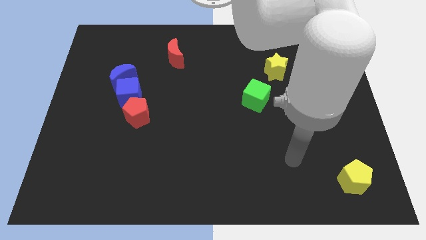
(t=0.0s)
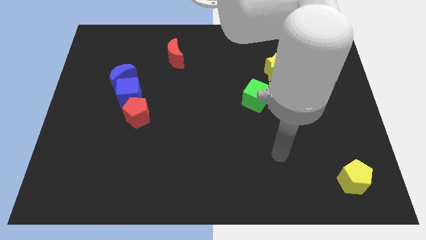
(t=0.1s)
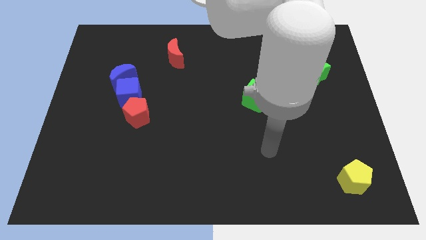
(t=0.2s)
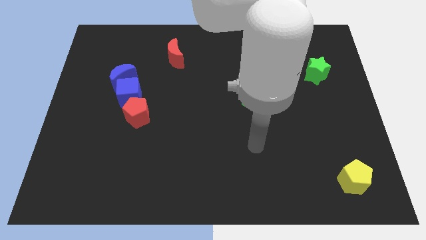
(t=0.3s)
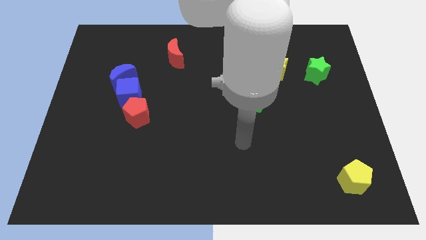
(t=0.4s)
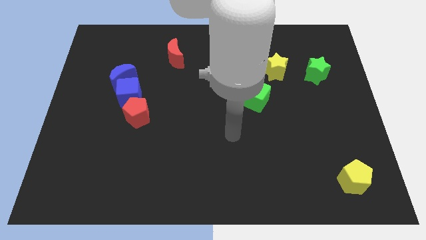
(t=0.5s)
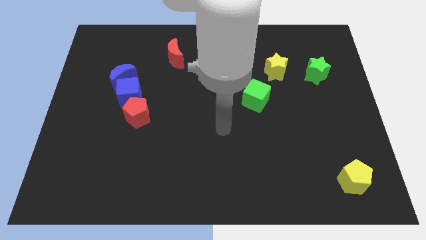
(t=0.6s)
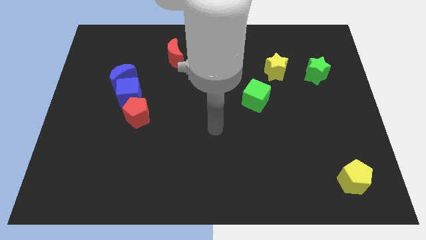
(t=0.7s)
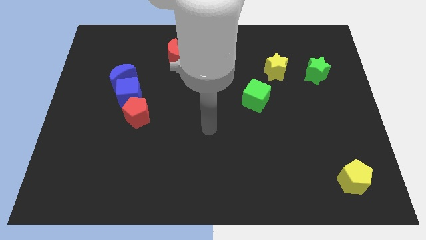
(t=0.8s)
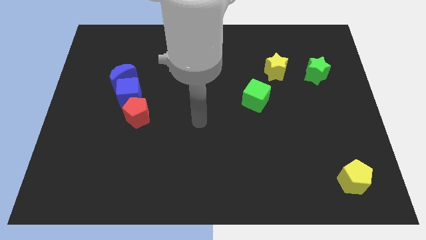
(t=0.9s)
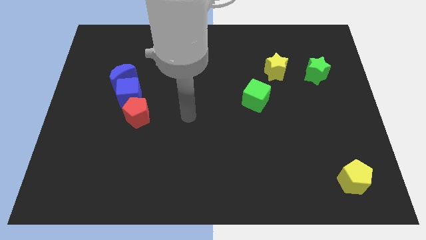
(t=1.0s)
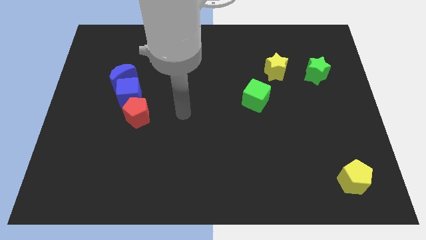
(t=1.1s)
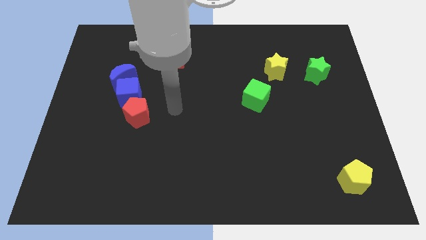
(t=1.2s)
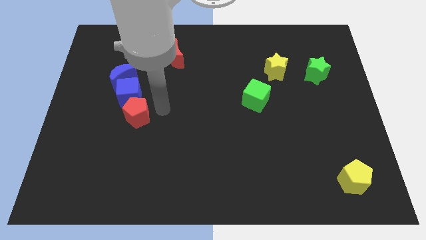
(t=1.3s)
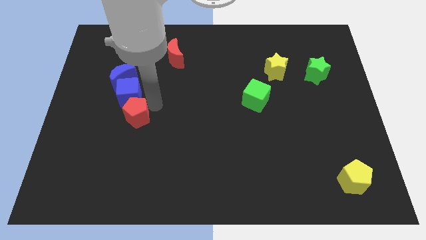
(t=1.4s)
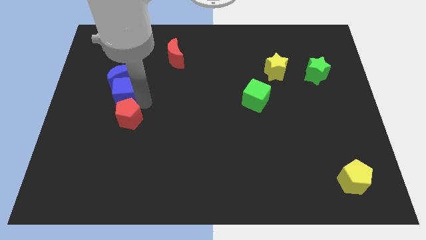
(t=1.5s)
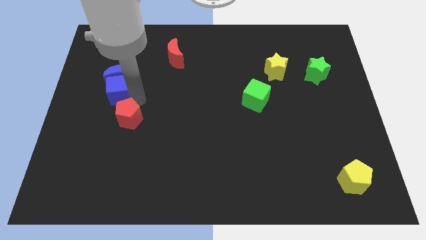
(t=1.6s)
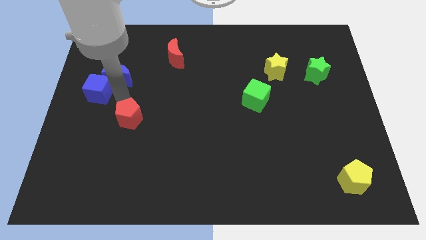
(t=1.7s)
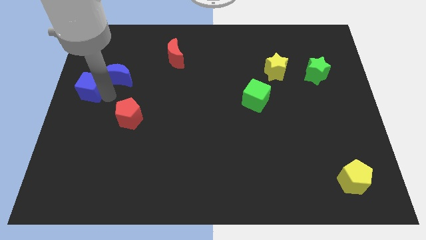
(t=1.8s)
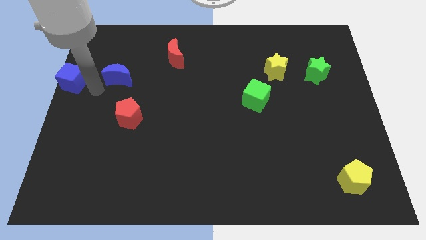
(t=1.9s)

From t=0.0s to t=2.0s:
move the blue moon away from the blue cube

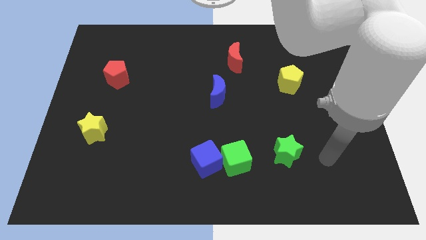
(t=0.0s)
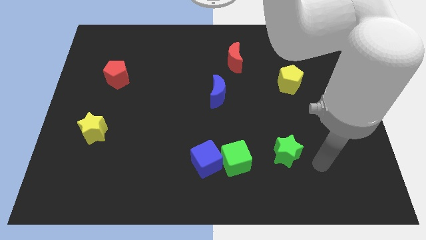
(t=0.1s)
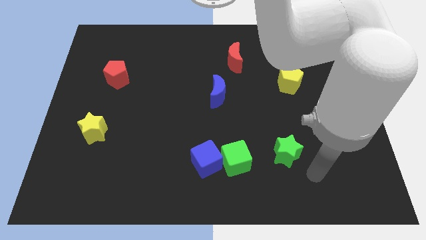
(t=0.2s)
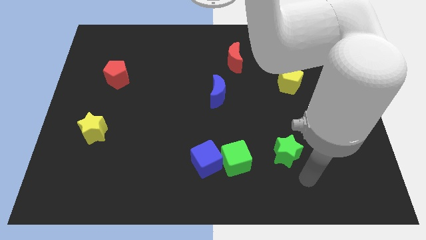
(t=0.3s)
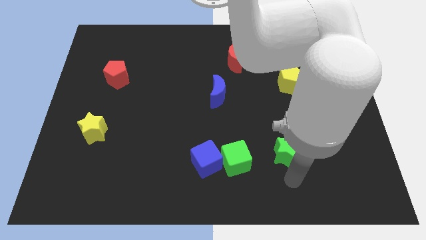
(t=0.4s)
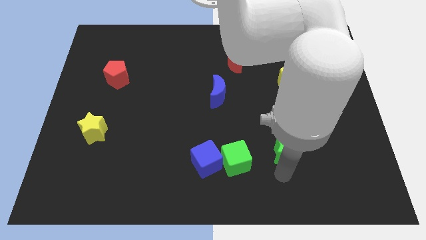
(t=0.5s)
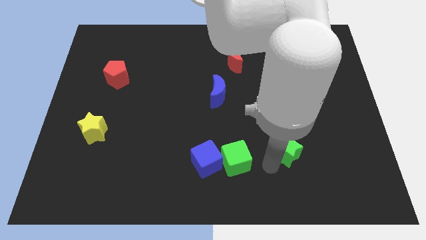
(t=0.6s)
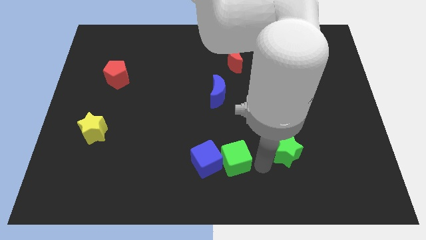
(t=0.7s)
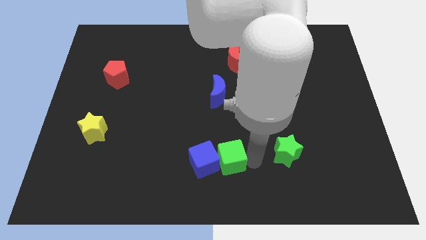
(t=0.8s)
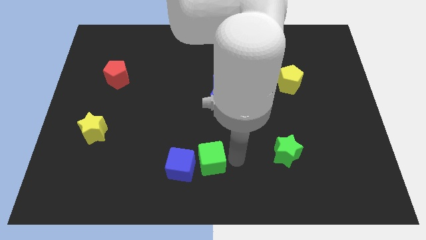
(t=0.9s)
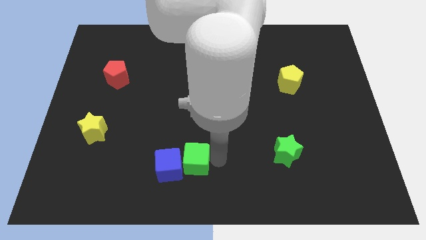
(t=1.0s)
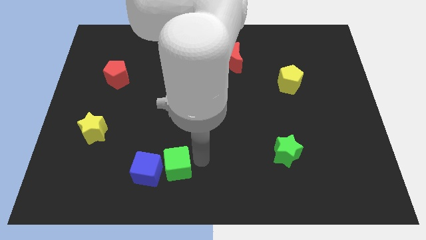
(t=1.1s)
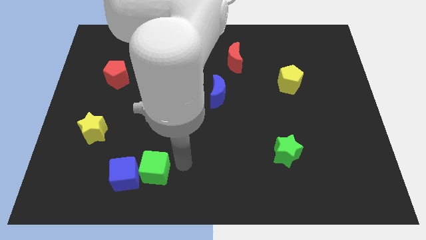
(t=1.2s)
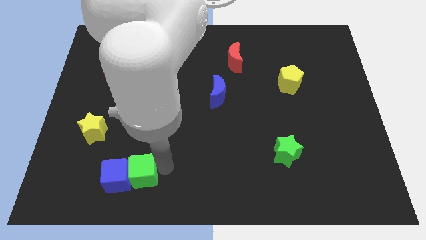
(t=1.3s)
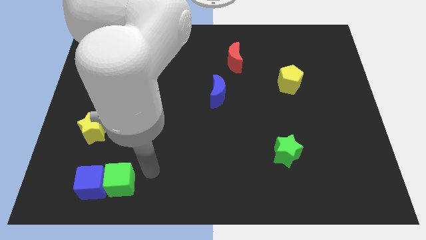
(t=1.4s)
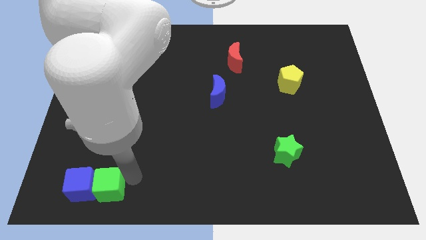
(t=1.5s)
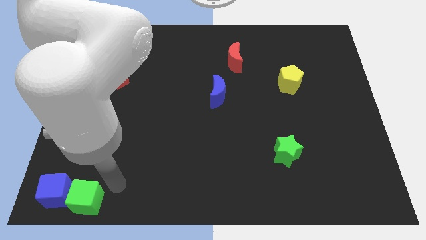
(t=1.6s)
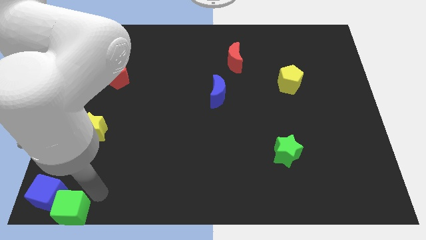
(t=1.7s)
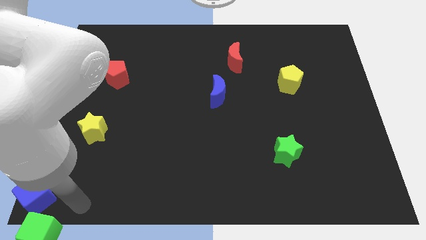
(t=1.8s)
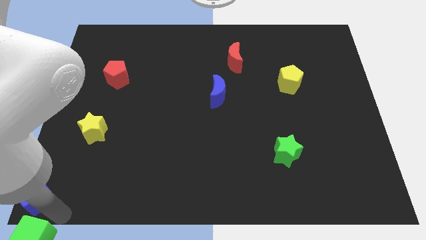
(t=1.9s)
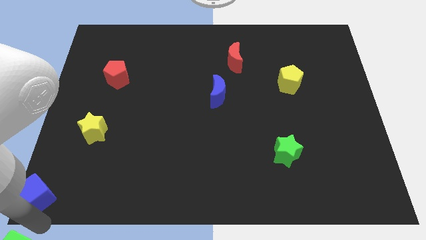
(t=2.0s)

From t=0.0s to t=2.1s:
move the blue cube away from the green cube

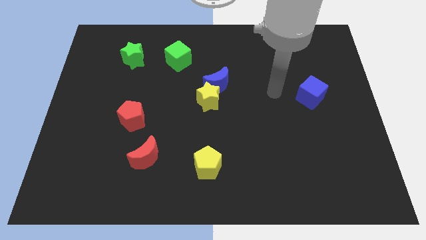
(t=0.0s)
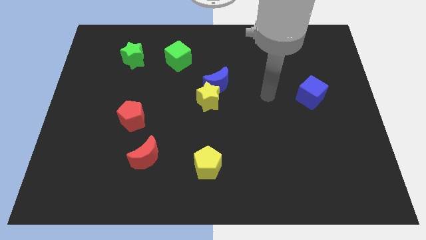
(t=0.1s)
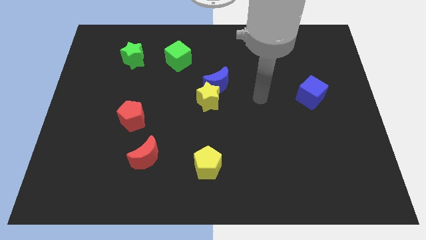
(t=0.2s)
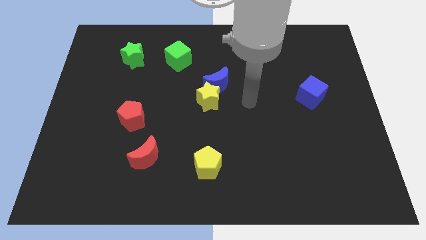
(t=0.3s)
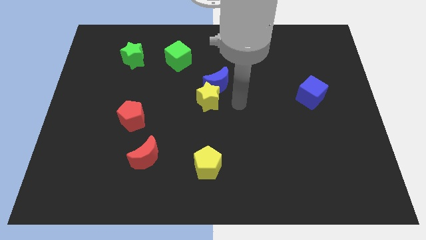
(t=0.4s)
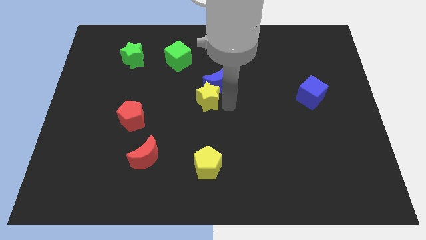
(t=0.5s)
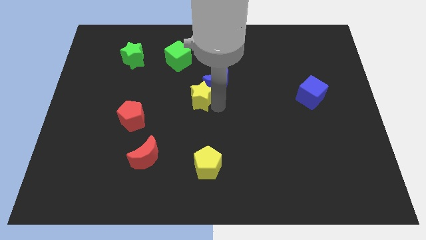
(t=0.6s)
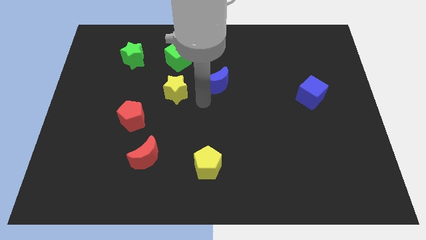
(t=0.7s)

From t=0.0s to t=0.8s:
separate the blue moon from the yellow star

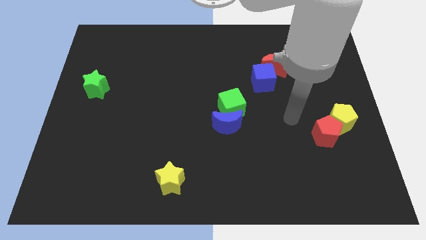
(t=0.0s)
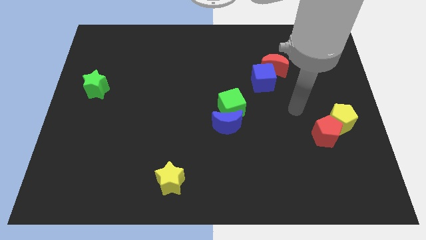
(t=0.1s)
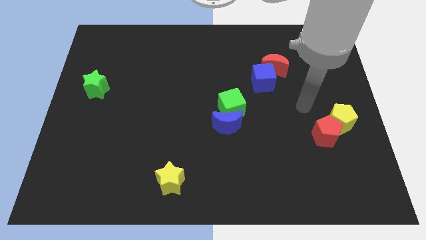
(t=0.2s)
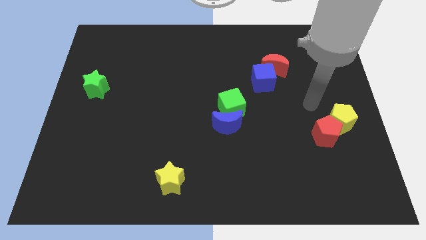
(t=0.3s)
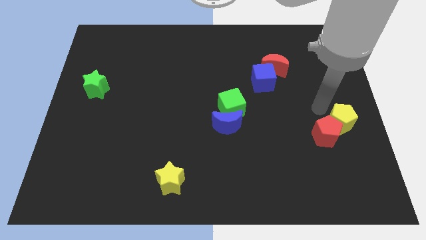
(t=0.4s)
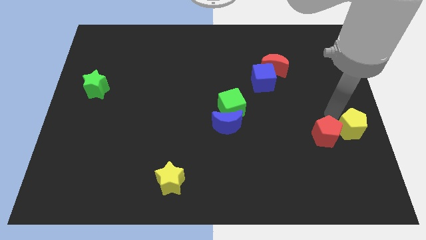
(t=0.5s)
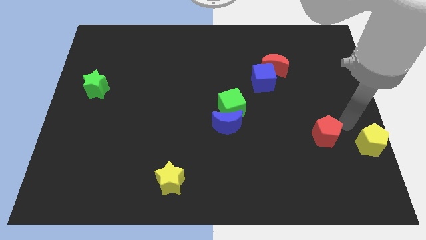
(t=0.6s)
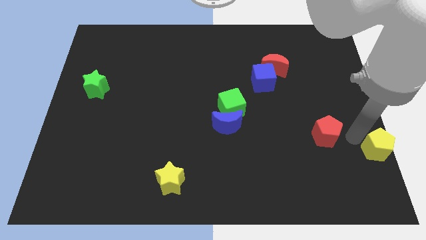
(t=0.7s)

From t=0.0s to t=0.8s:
move the red pentagon away from the yellow pentagon

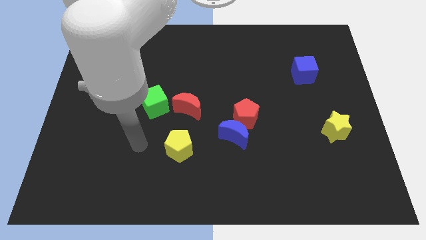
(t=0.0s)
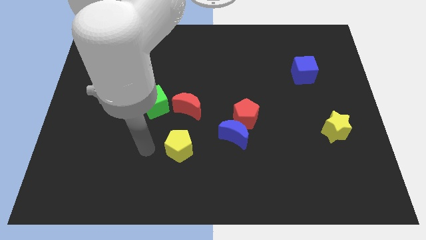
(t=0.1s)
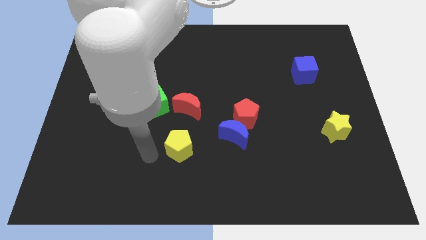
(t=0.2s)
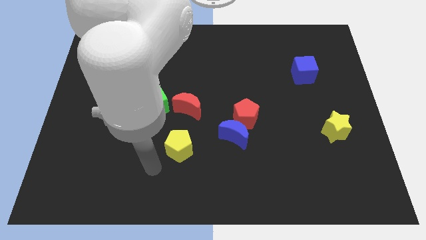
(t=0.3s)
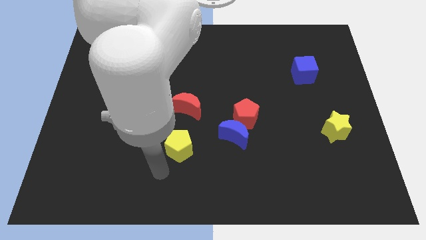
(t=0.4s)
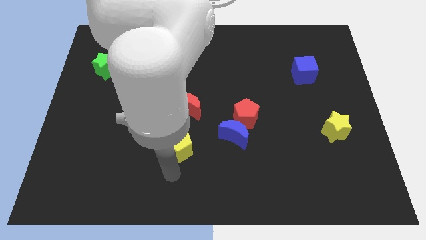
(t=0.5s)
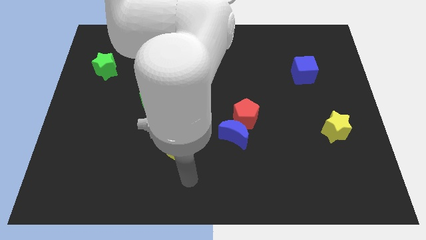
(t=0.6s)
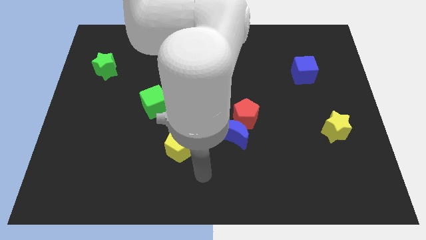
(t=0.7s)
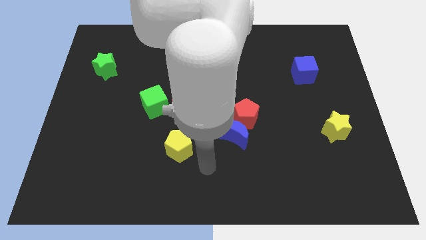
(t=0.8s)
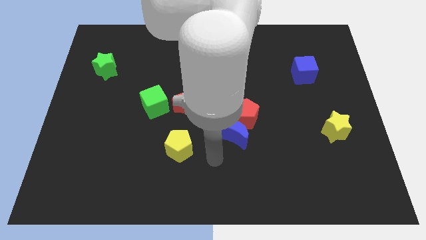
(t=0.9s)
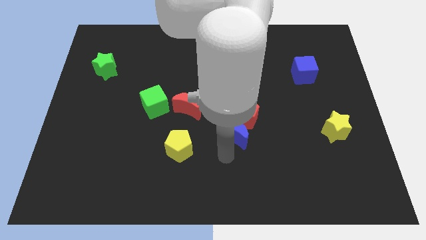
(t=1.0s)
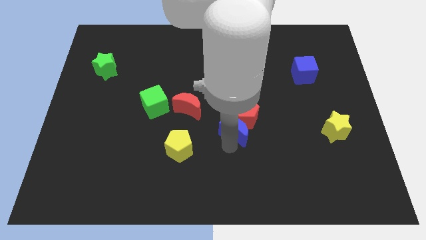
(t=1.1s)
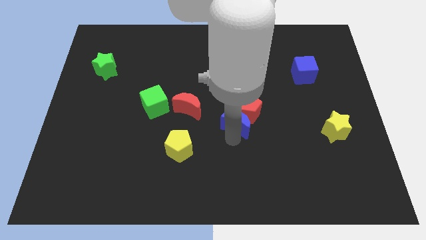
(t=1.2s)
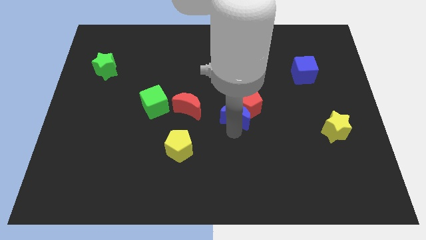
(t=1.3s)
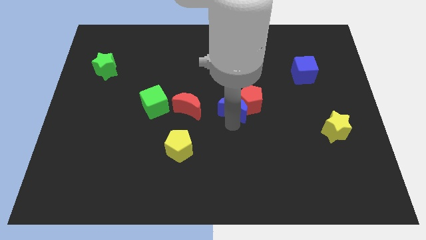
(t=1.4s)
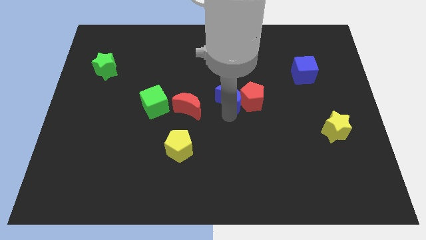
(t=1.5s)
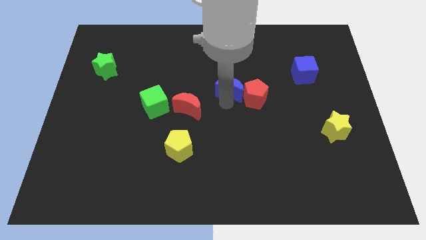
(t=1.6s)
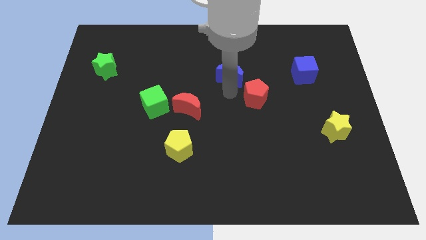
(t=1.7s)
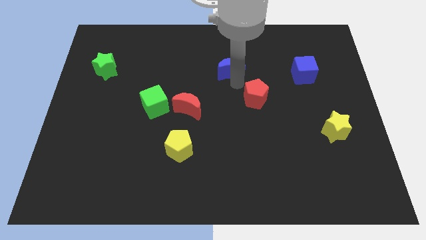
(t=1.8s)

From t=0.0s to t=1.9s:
pull the red pentagon apart from the blue moon

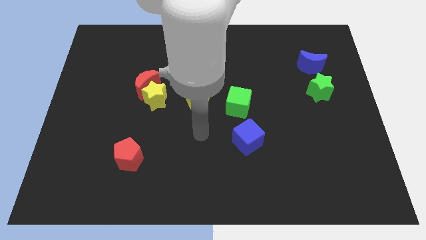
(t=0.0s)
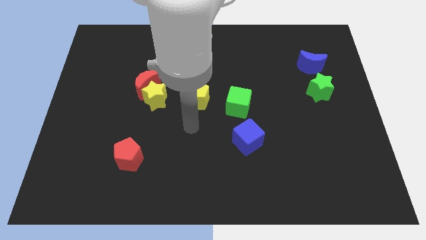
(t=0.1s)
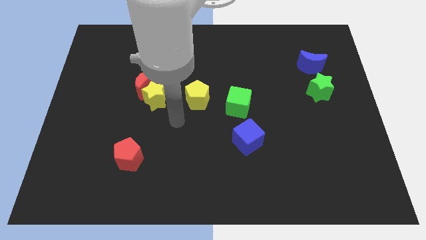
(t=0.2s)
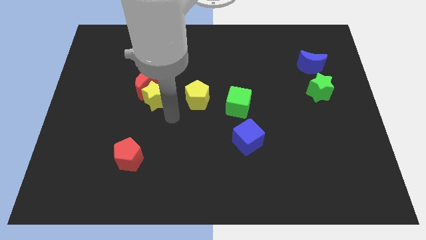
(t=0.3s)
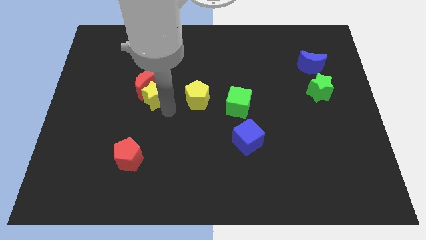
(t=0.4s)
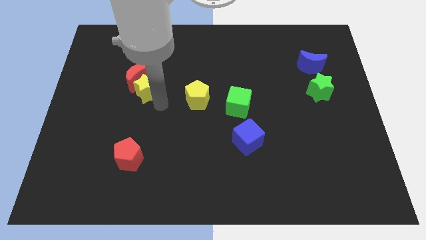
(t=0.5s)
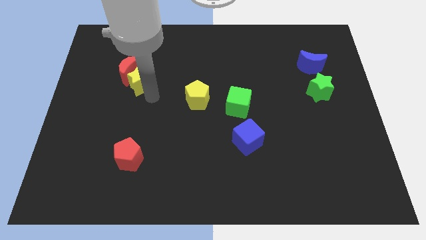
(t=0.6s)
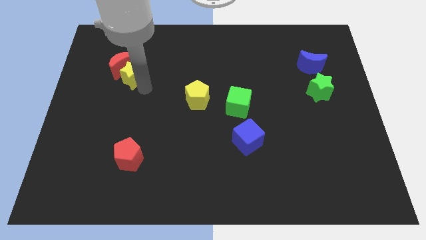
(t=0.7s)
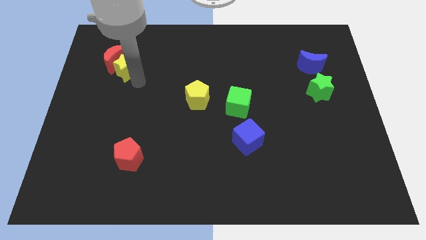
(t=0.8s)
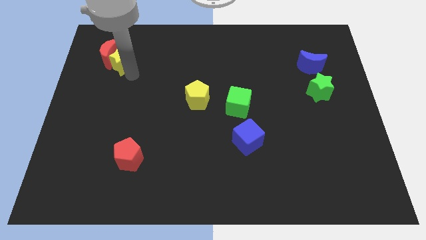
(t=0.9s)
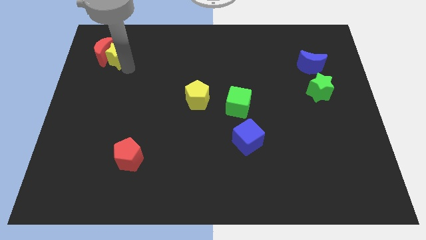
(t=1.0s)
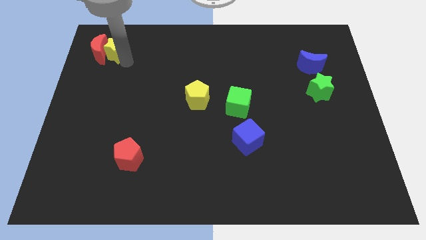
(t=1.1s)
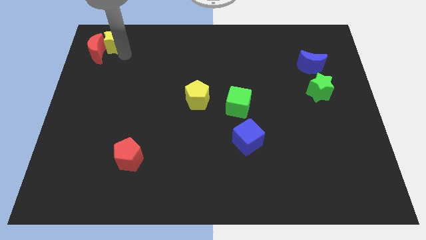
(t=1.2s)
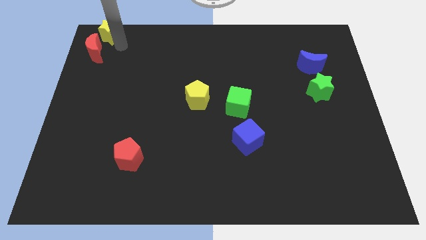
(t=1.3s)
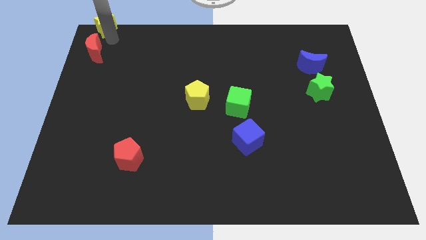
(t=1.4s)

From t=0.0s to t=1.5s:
pull the red moon apart from the yellow star

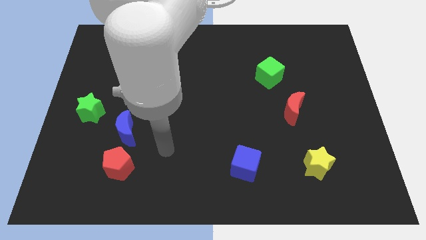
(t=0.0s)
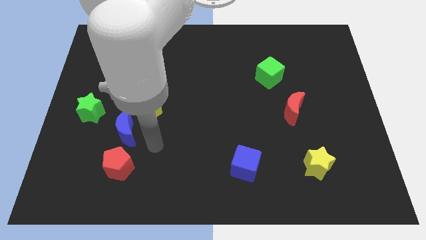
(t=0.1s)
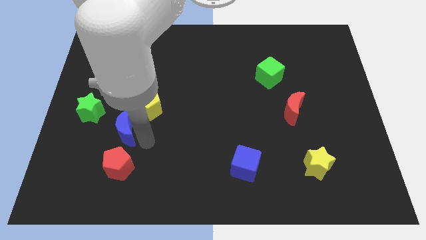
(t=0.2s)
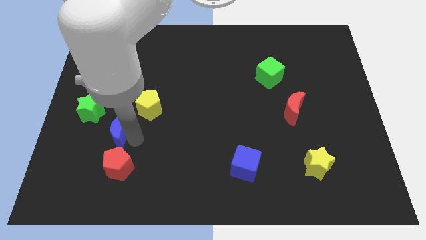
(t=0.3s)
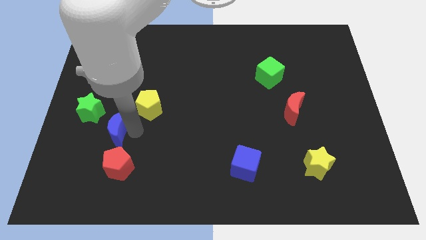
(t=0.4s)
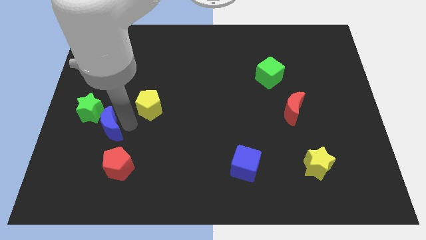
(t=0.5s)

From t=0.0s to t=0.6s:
separate the yellow pentagon from the blue moon
